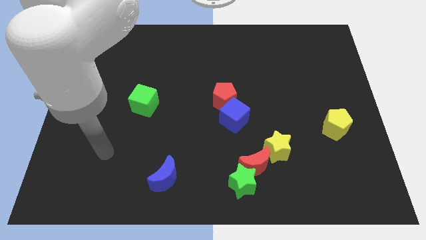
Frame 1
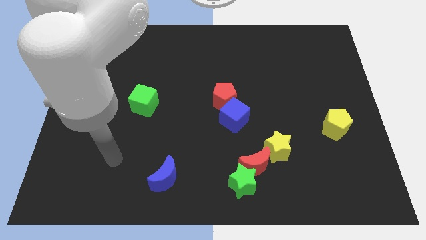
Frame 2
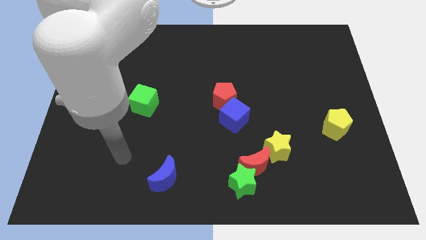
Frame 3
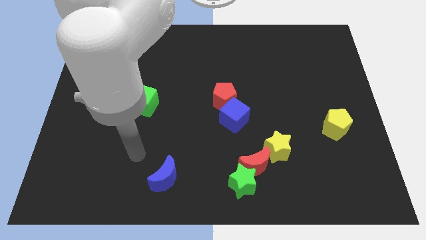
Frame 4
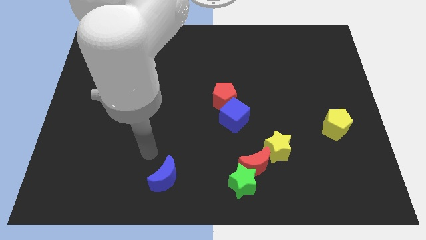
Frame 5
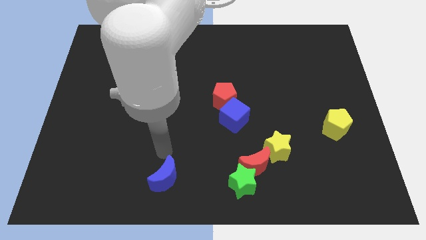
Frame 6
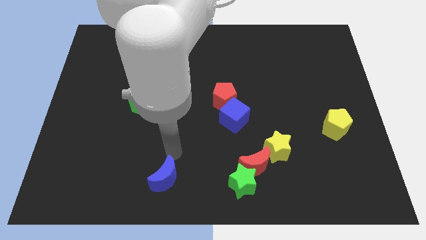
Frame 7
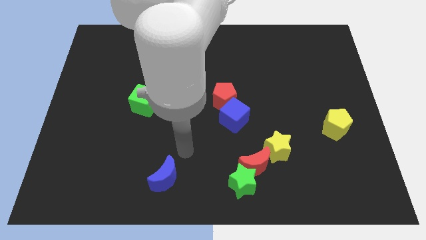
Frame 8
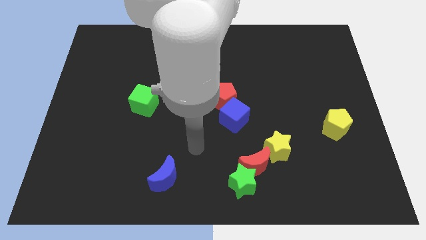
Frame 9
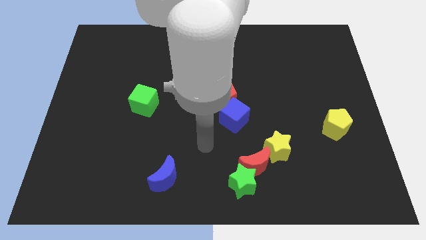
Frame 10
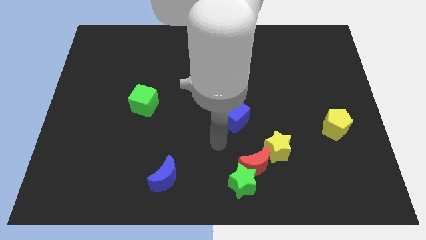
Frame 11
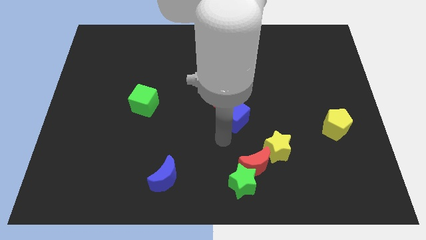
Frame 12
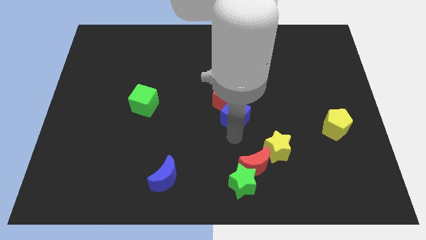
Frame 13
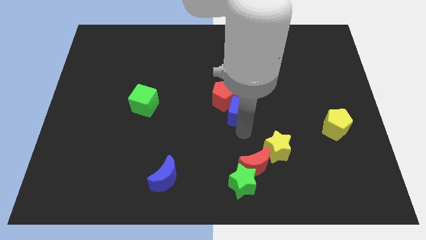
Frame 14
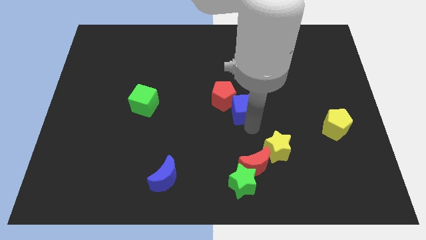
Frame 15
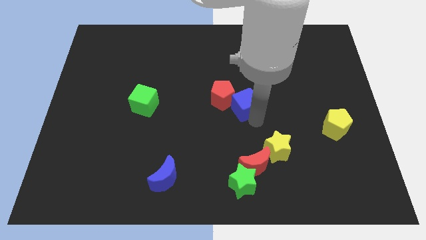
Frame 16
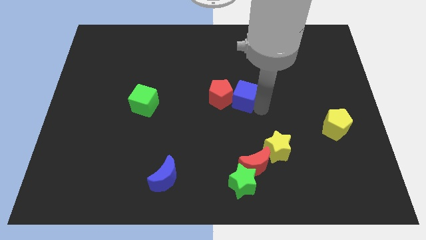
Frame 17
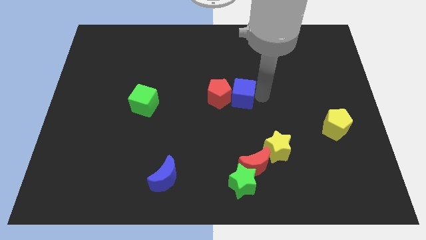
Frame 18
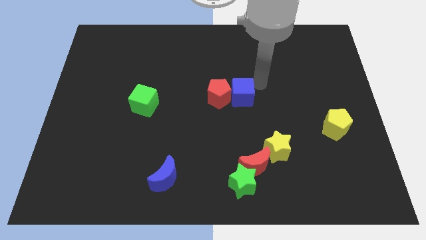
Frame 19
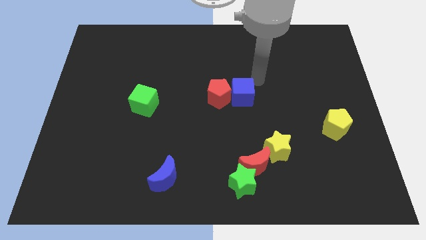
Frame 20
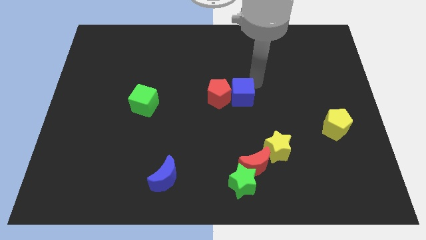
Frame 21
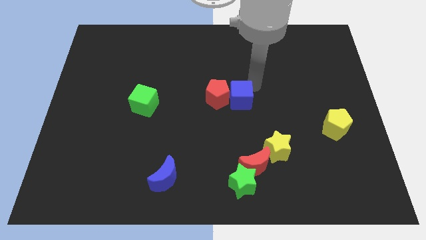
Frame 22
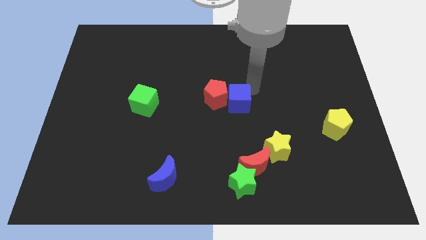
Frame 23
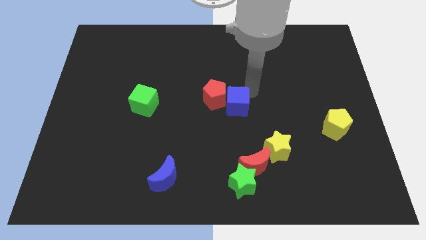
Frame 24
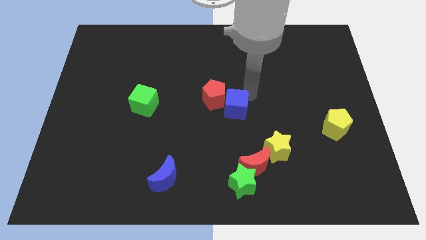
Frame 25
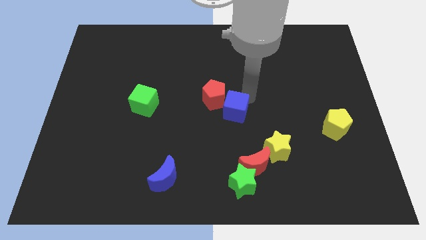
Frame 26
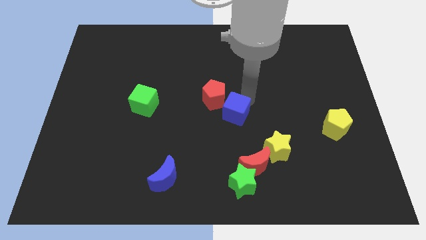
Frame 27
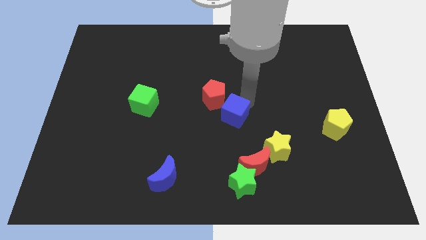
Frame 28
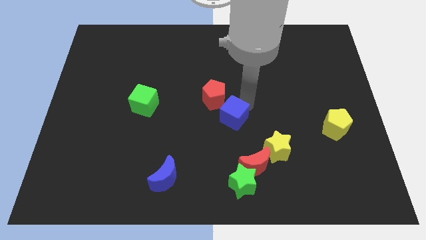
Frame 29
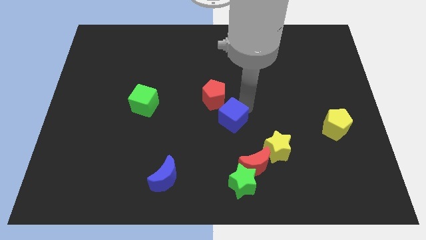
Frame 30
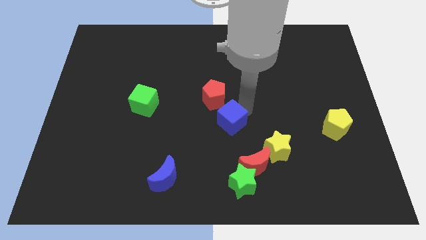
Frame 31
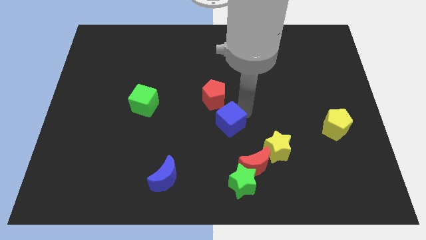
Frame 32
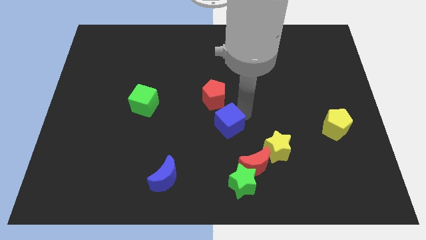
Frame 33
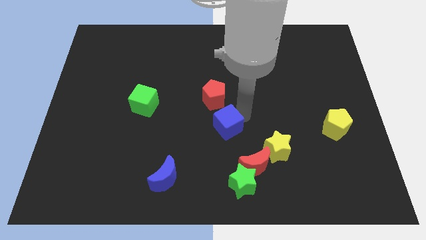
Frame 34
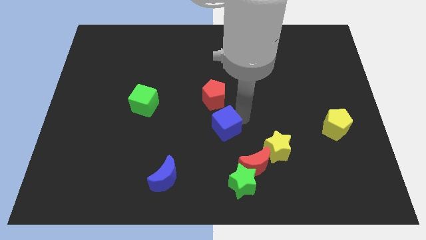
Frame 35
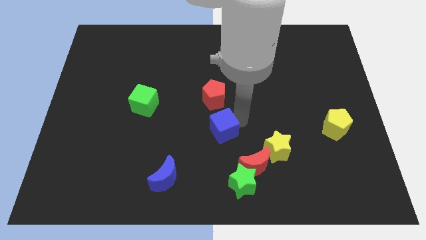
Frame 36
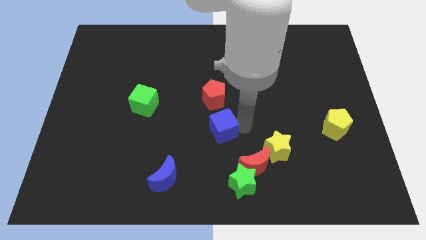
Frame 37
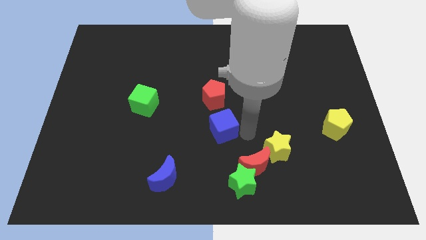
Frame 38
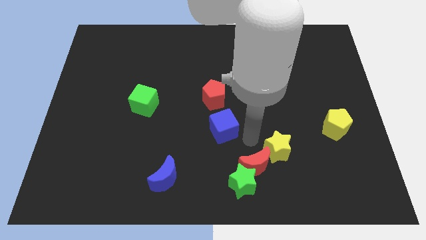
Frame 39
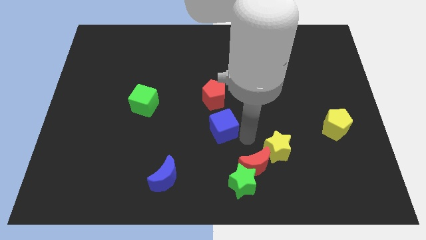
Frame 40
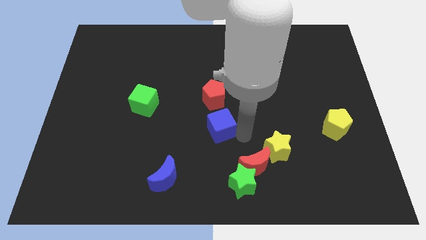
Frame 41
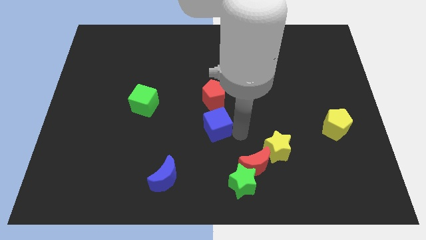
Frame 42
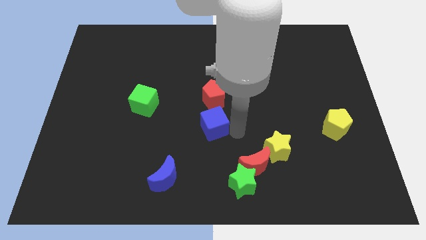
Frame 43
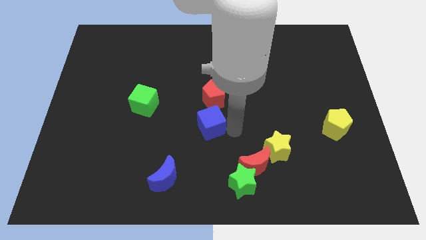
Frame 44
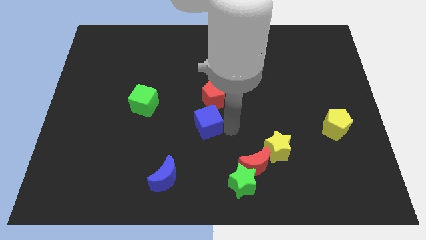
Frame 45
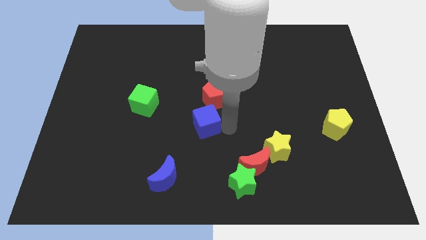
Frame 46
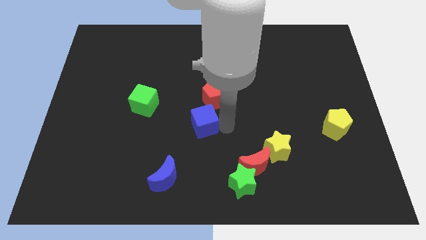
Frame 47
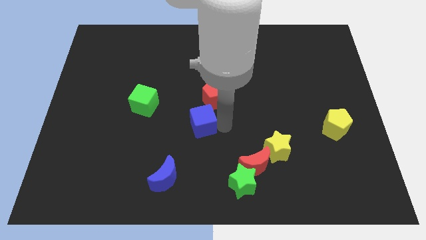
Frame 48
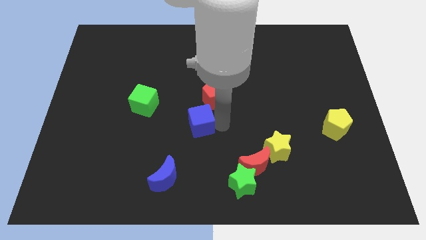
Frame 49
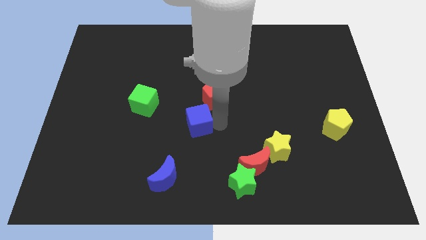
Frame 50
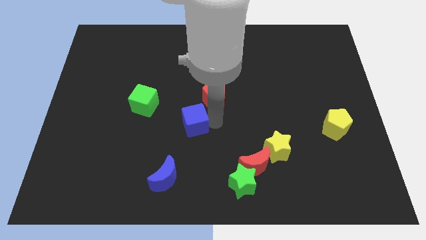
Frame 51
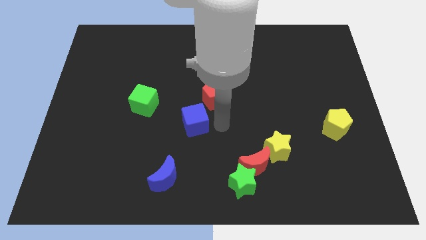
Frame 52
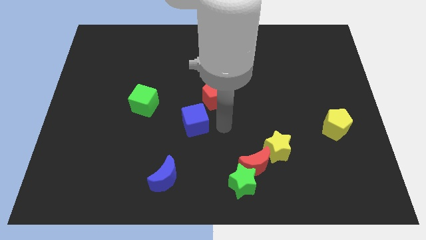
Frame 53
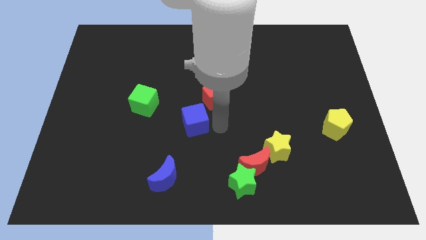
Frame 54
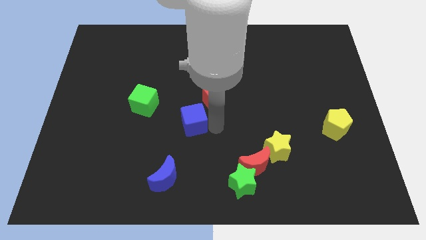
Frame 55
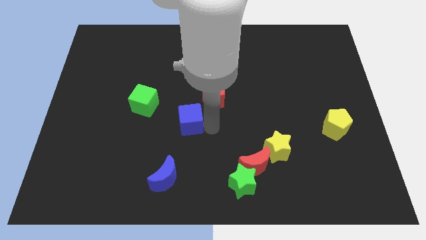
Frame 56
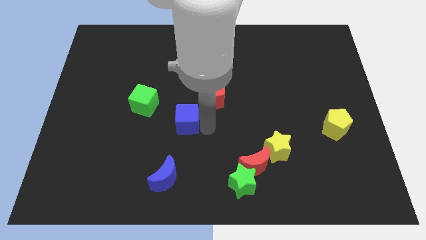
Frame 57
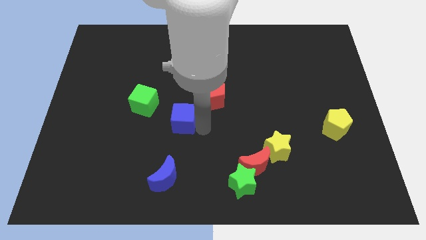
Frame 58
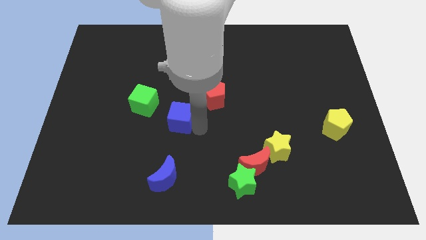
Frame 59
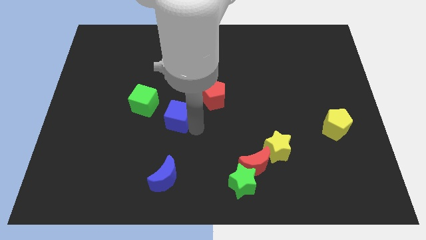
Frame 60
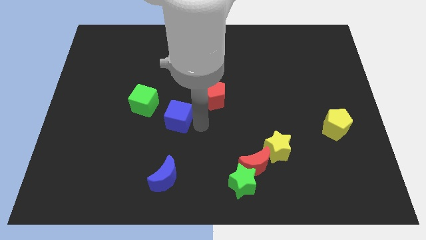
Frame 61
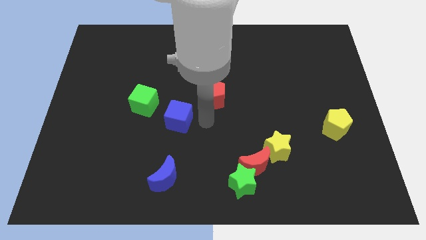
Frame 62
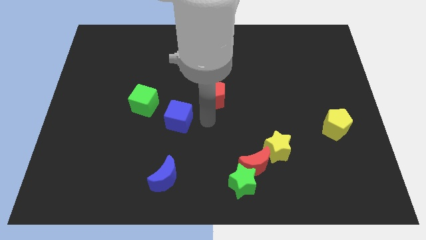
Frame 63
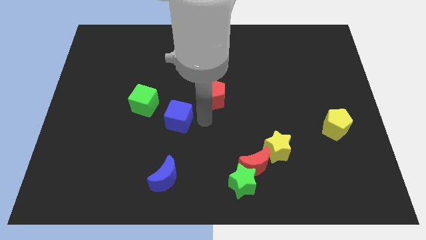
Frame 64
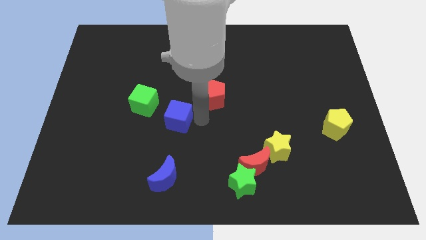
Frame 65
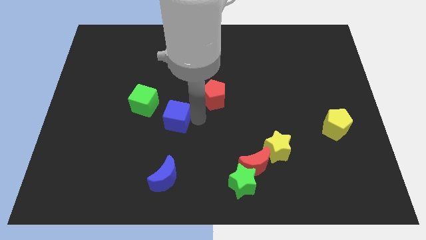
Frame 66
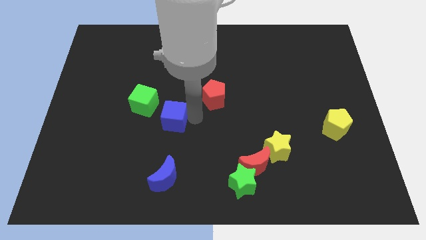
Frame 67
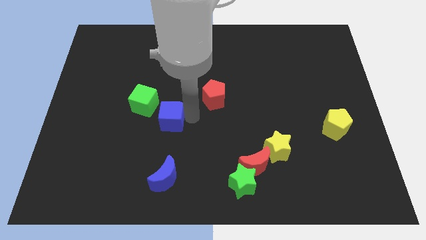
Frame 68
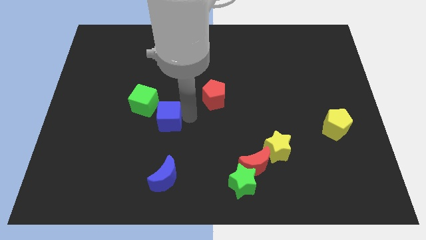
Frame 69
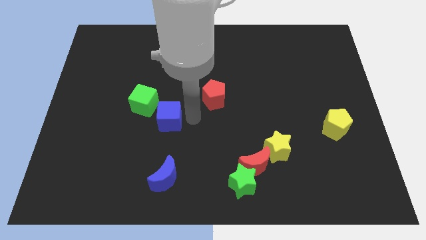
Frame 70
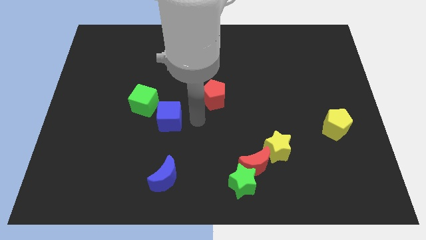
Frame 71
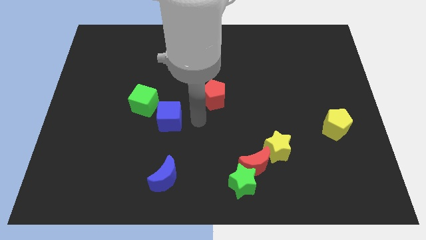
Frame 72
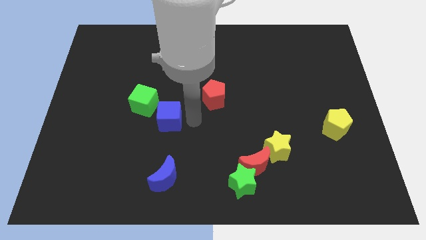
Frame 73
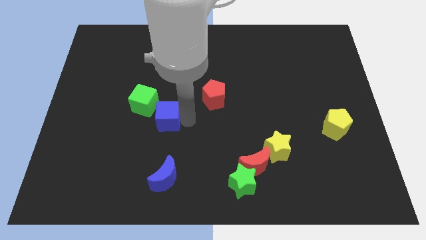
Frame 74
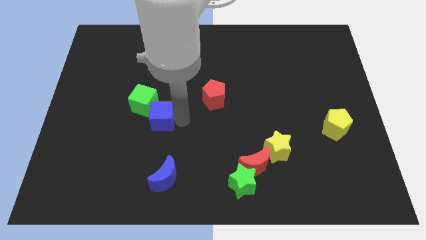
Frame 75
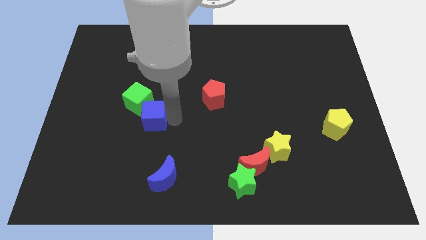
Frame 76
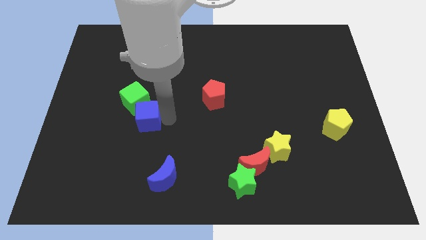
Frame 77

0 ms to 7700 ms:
push the blue cube to the left

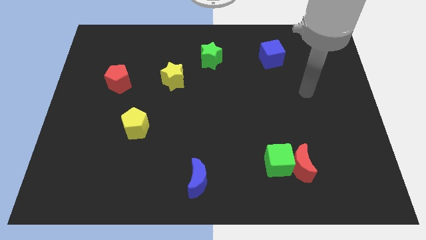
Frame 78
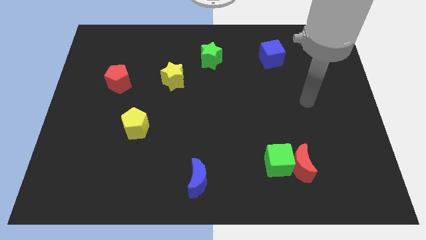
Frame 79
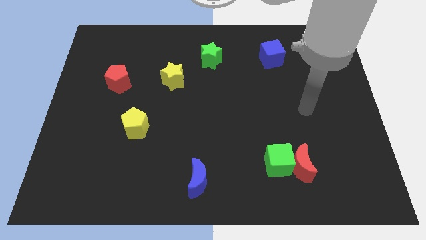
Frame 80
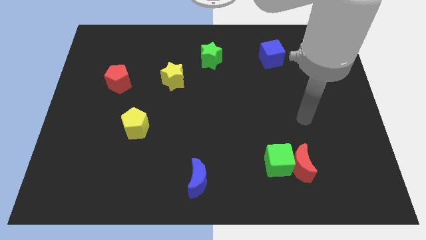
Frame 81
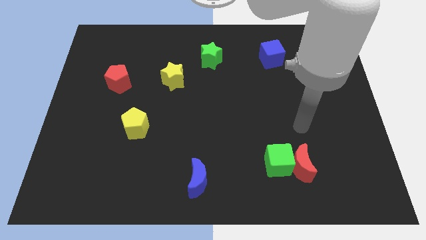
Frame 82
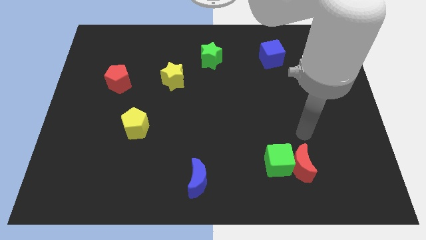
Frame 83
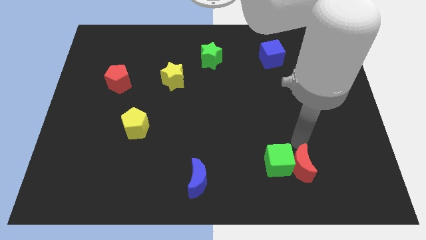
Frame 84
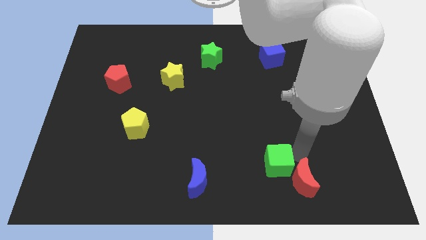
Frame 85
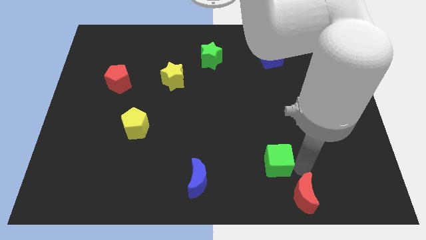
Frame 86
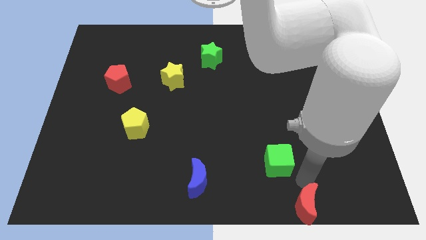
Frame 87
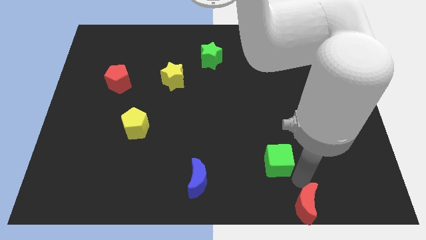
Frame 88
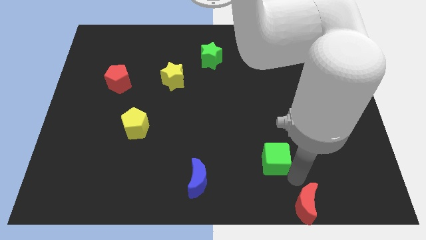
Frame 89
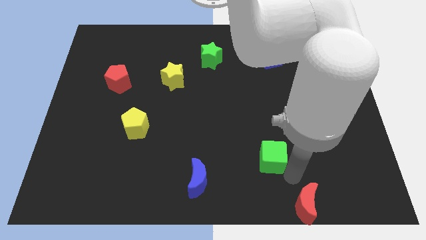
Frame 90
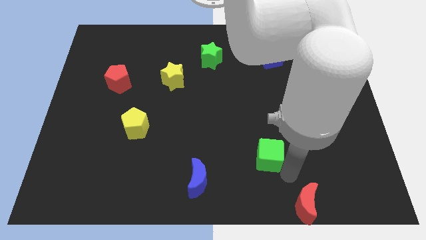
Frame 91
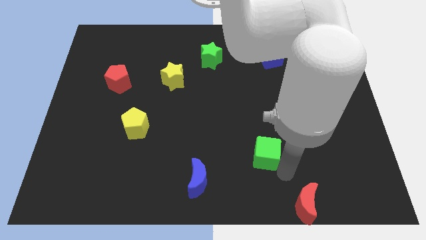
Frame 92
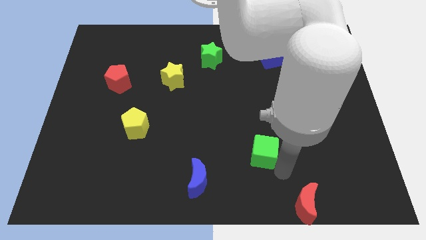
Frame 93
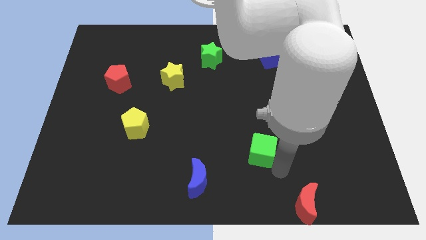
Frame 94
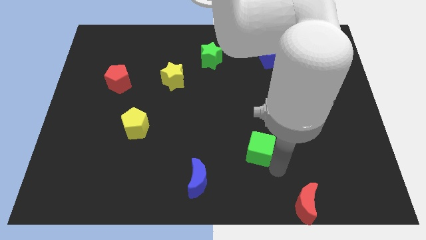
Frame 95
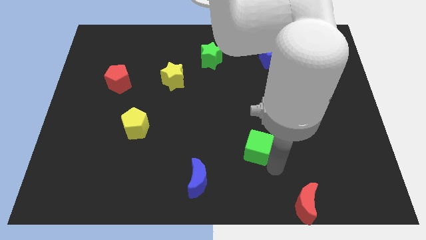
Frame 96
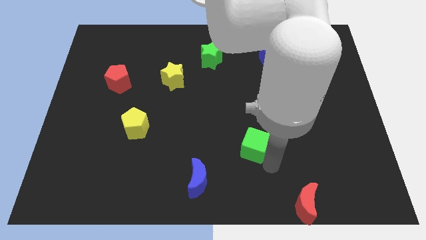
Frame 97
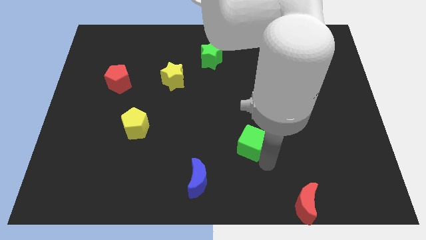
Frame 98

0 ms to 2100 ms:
slightly move the green cube up and left
